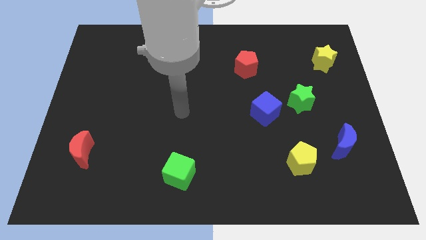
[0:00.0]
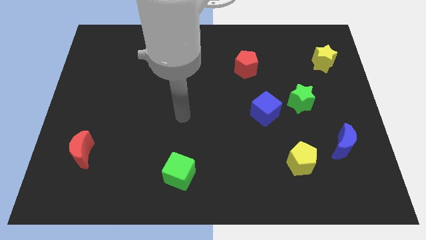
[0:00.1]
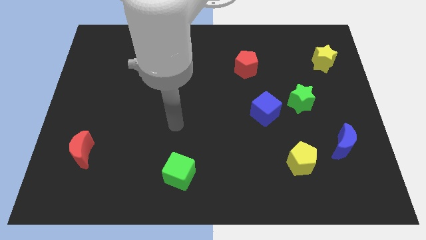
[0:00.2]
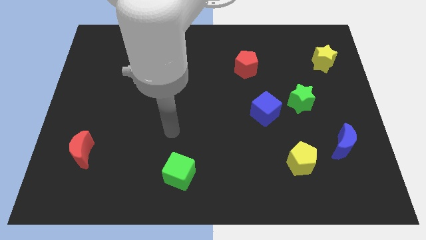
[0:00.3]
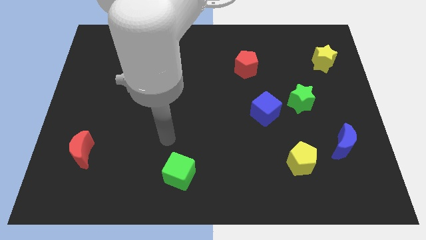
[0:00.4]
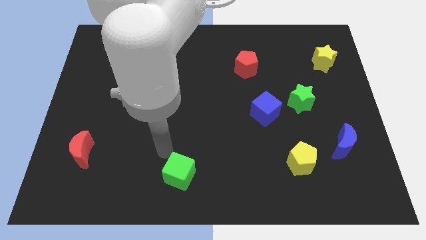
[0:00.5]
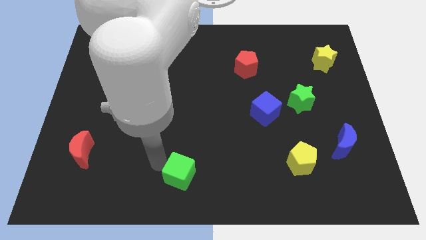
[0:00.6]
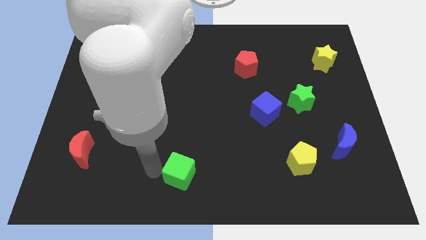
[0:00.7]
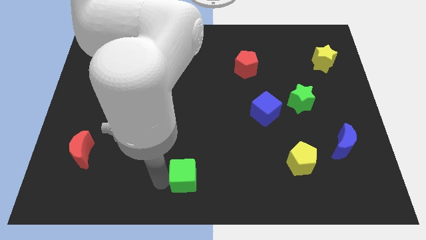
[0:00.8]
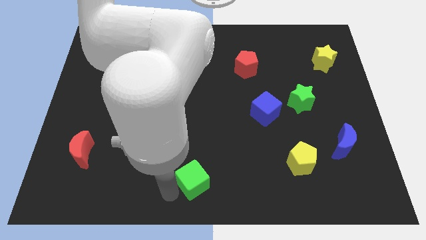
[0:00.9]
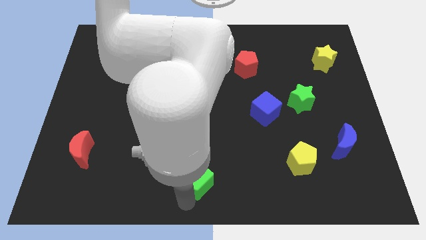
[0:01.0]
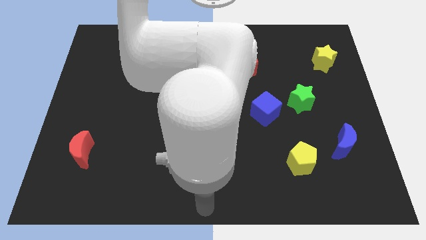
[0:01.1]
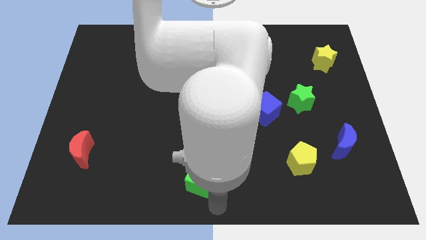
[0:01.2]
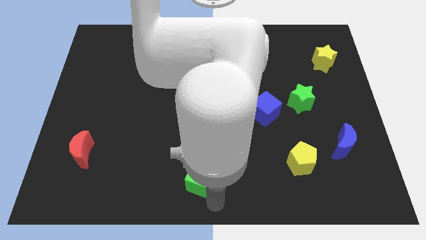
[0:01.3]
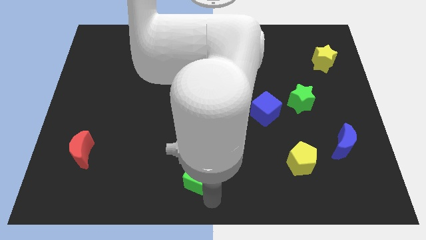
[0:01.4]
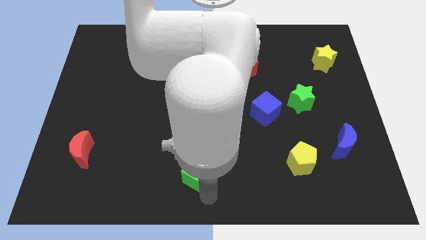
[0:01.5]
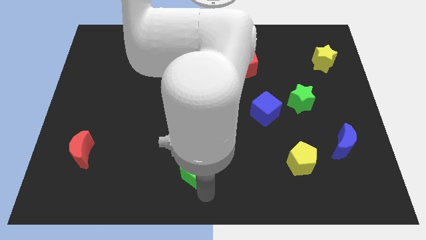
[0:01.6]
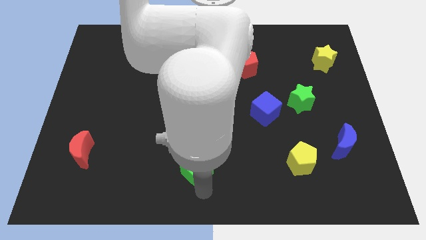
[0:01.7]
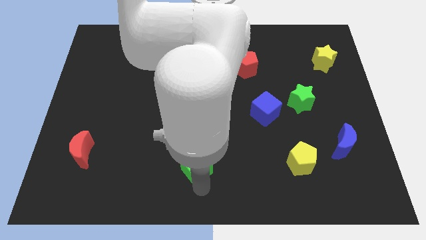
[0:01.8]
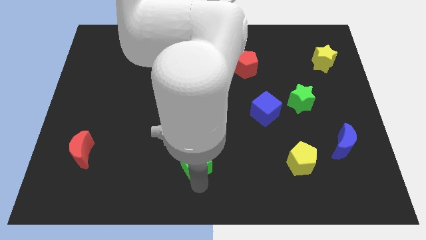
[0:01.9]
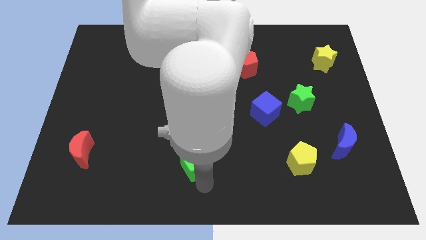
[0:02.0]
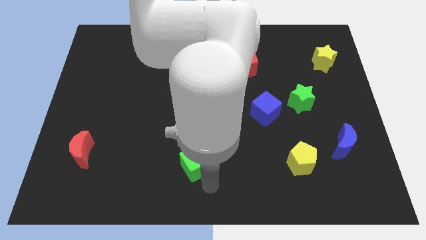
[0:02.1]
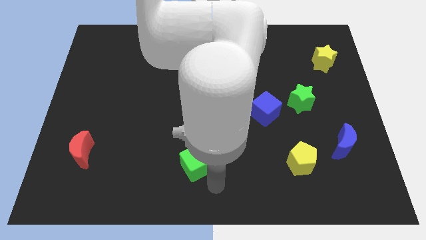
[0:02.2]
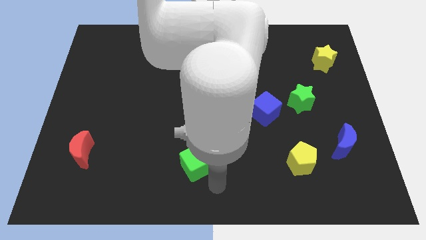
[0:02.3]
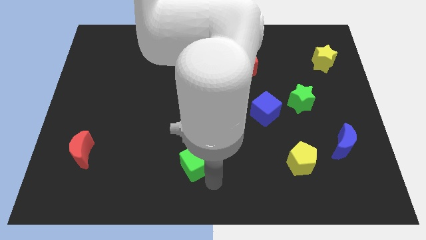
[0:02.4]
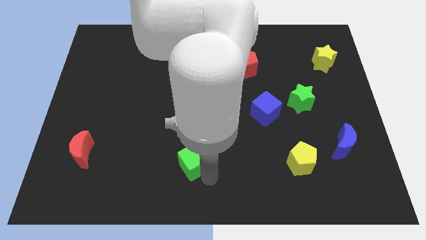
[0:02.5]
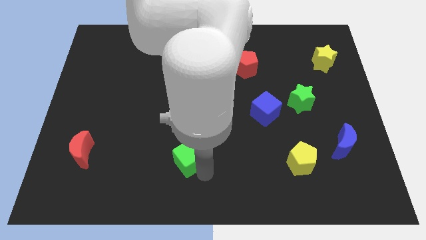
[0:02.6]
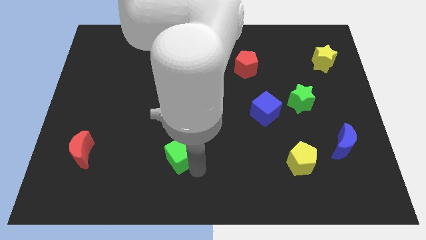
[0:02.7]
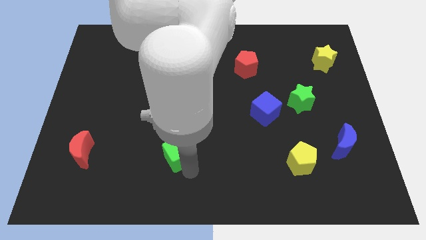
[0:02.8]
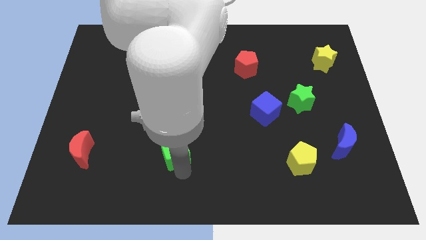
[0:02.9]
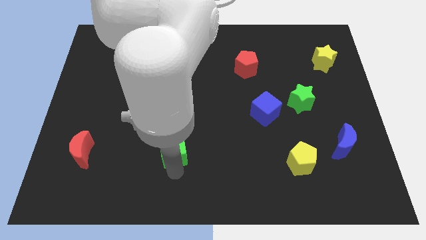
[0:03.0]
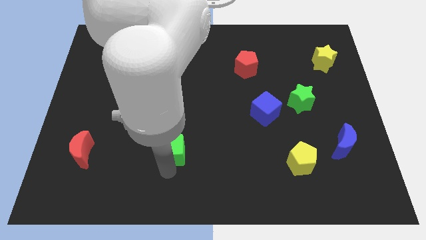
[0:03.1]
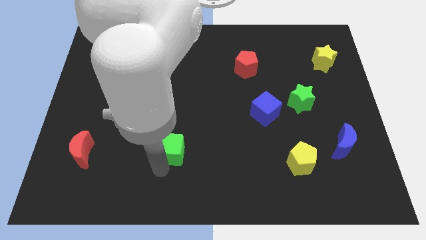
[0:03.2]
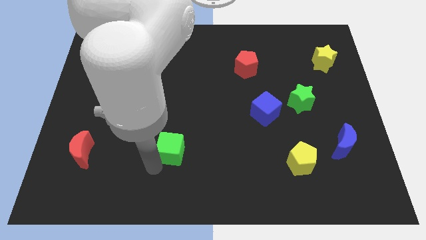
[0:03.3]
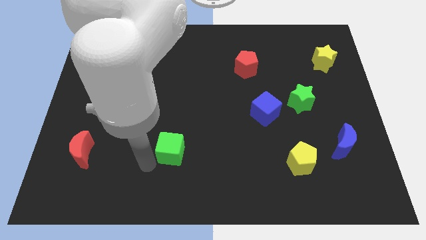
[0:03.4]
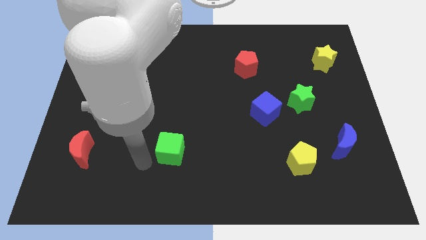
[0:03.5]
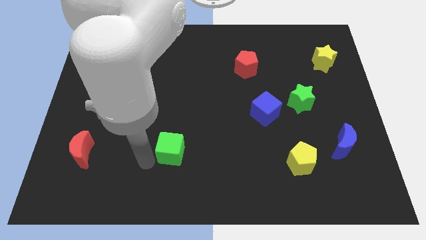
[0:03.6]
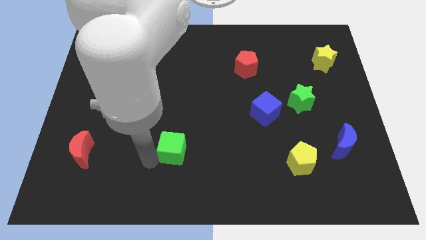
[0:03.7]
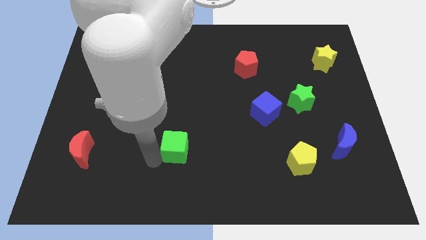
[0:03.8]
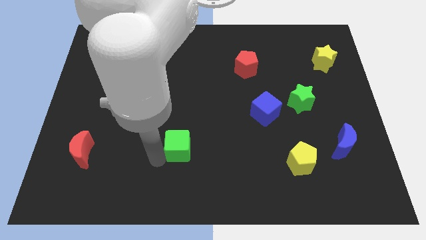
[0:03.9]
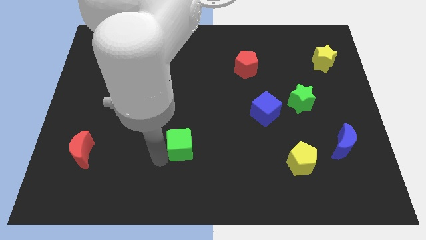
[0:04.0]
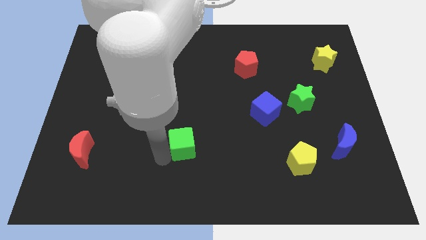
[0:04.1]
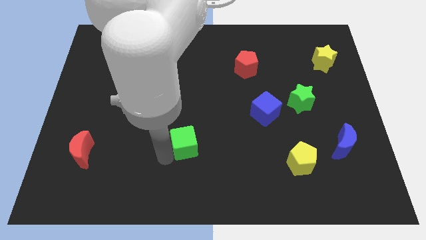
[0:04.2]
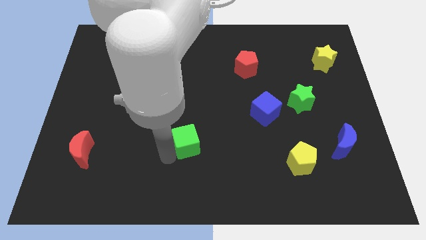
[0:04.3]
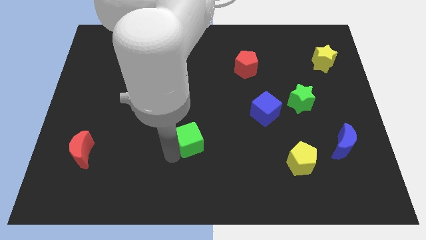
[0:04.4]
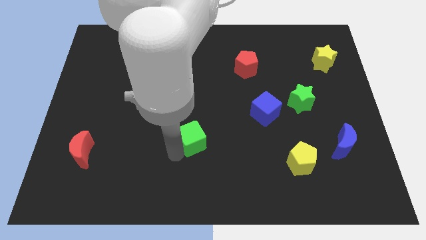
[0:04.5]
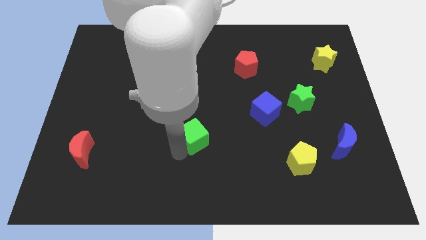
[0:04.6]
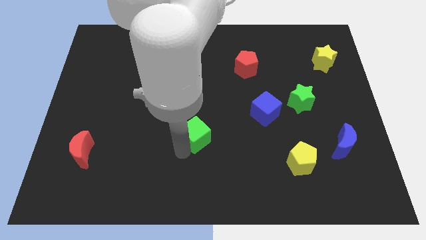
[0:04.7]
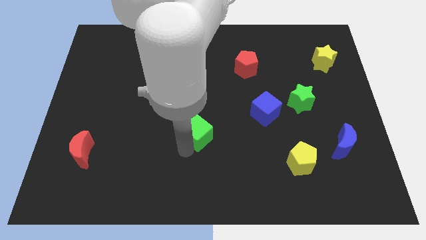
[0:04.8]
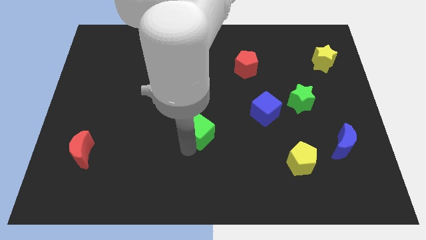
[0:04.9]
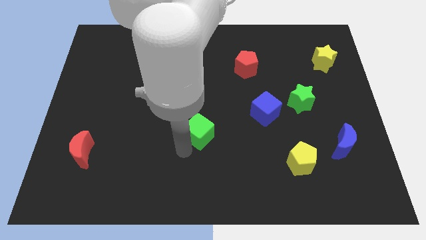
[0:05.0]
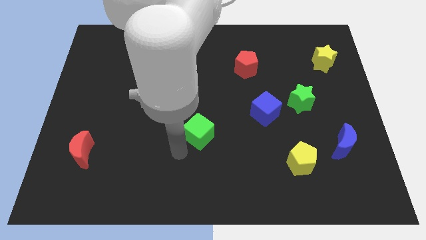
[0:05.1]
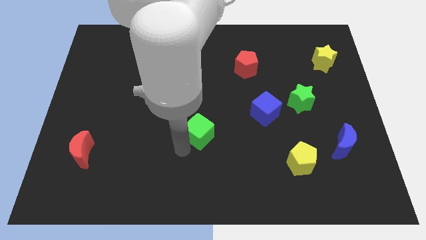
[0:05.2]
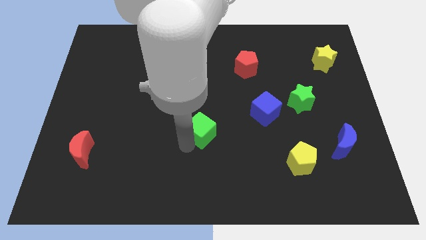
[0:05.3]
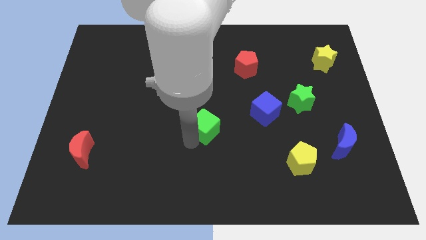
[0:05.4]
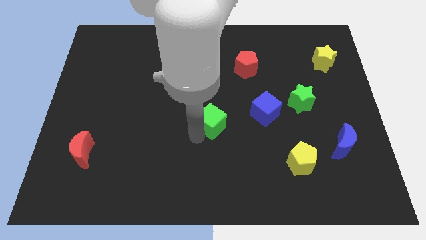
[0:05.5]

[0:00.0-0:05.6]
move the green cube to the left side of the blue cube

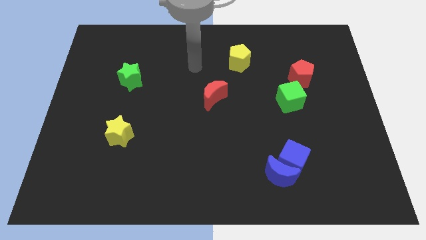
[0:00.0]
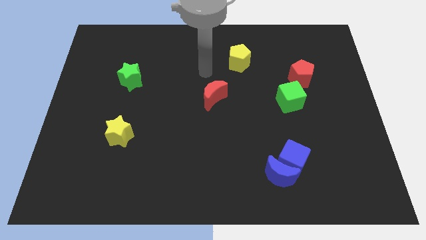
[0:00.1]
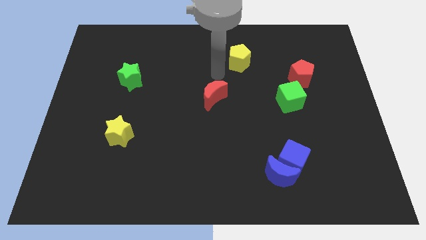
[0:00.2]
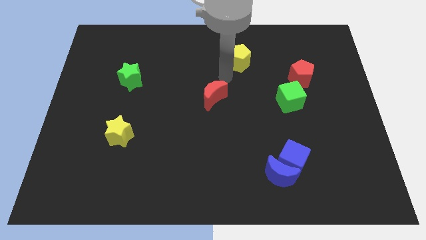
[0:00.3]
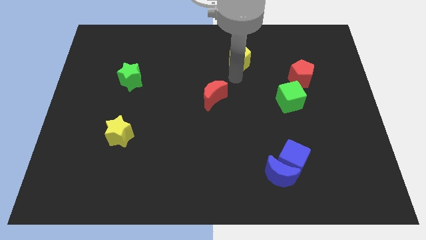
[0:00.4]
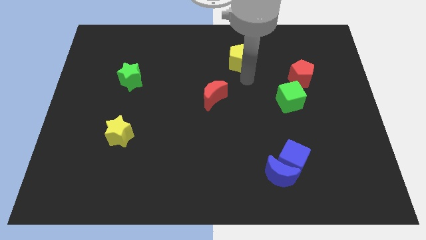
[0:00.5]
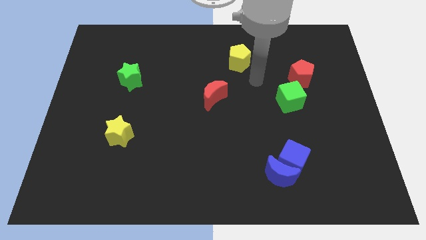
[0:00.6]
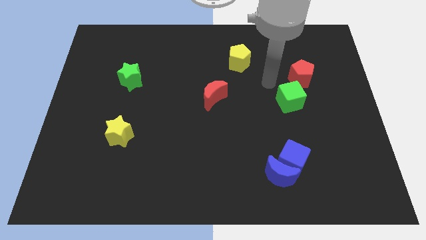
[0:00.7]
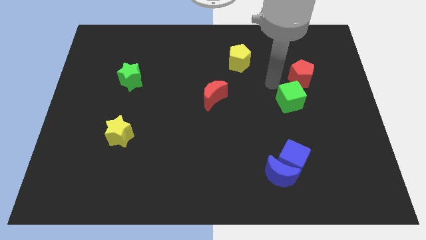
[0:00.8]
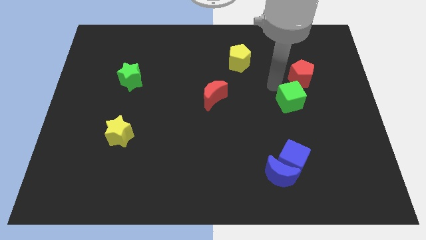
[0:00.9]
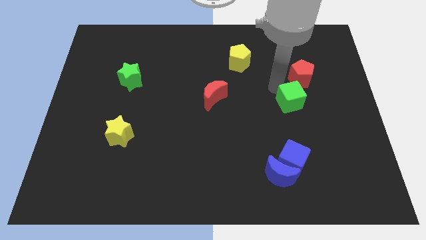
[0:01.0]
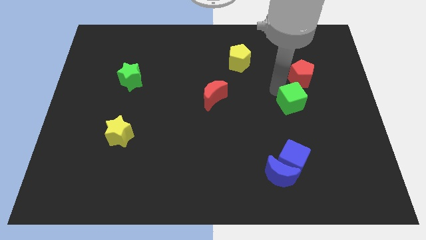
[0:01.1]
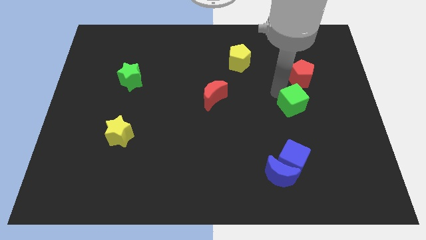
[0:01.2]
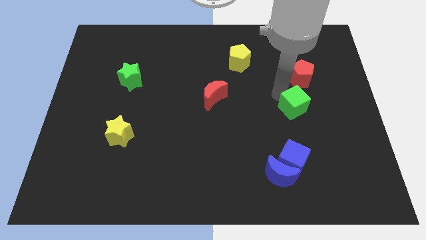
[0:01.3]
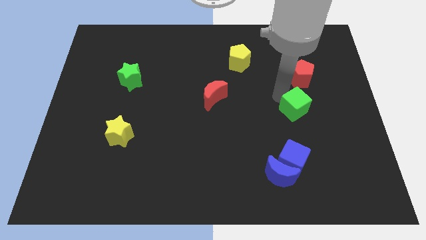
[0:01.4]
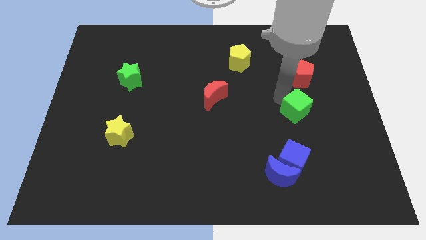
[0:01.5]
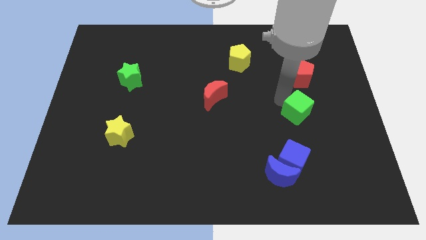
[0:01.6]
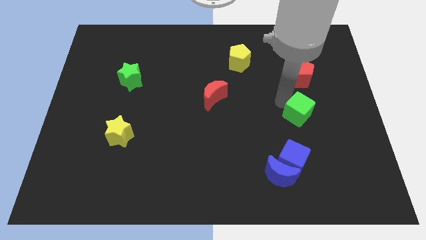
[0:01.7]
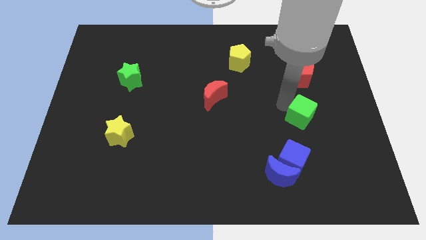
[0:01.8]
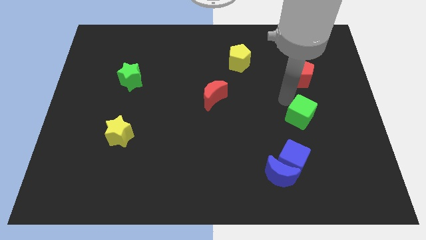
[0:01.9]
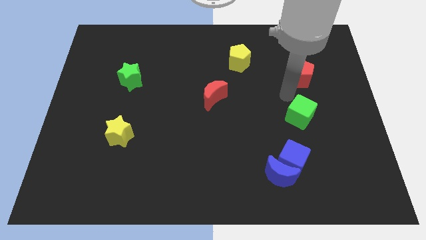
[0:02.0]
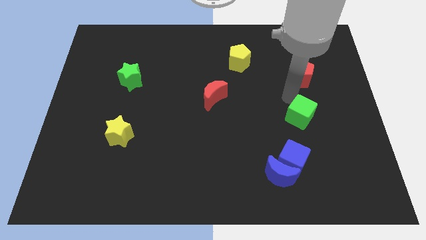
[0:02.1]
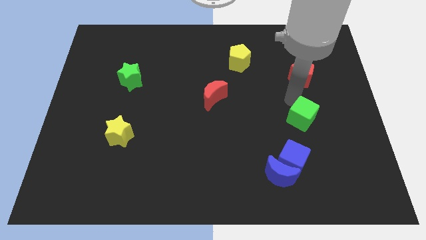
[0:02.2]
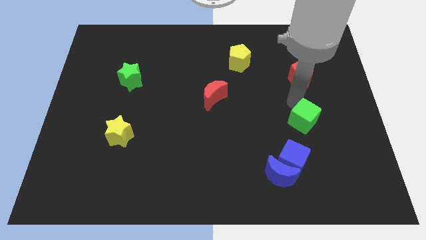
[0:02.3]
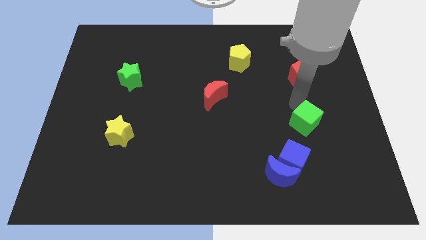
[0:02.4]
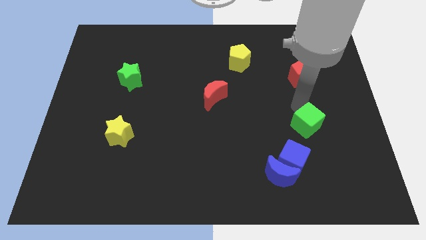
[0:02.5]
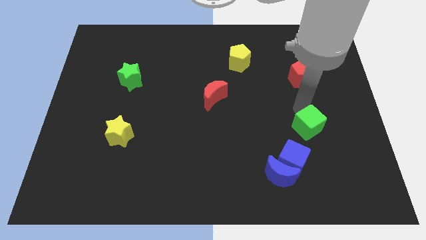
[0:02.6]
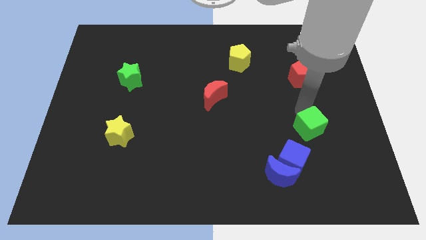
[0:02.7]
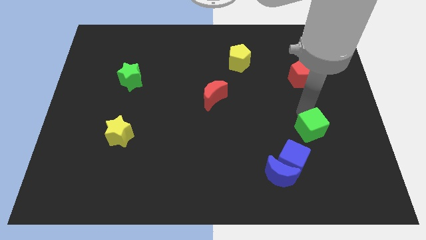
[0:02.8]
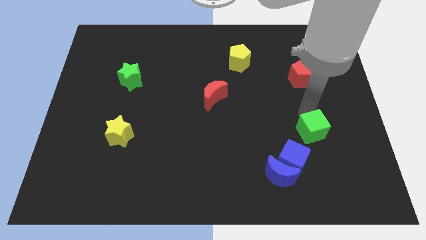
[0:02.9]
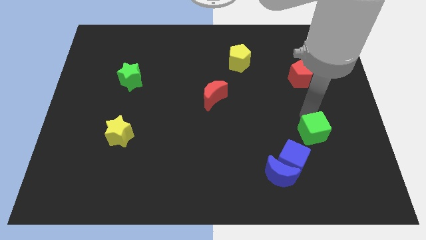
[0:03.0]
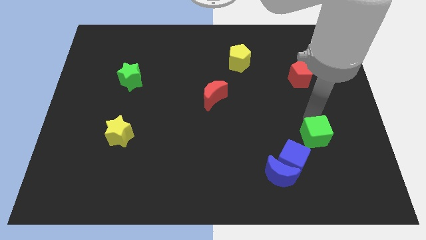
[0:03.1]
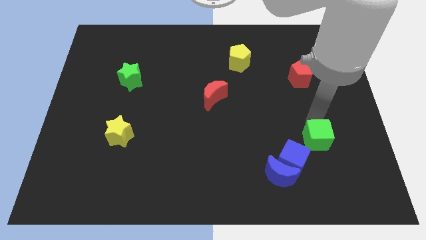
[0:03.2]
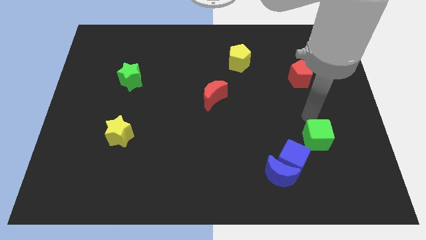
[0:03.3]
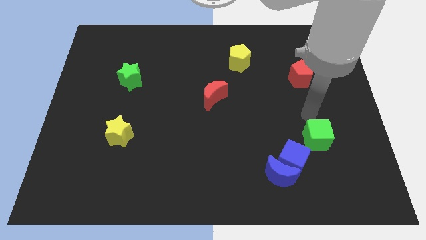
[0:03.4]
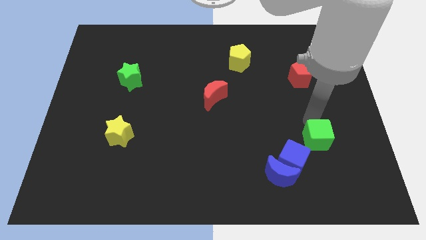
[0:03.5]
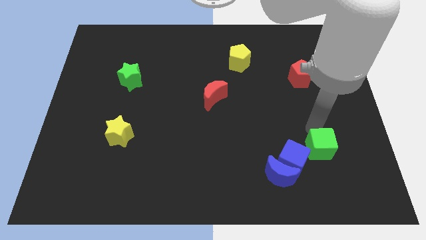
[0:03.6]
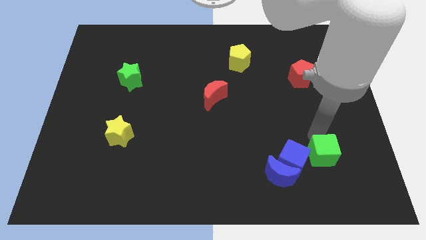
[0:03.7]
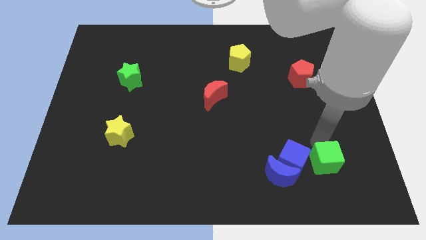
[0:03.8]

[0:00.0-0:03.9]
move the green cube to the right of the blue moon
